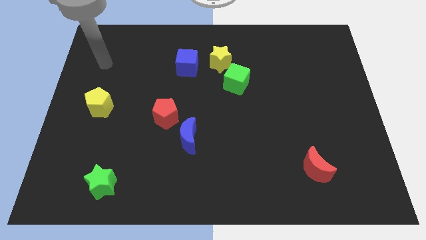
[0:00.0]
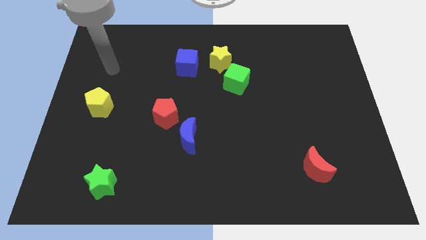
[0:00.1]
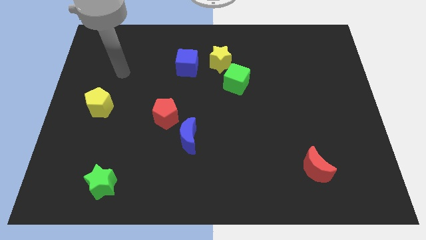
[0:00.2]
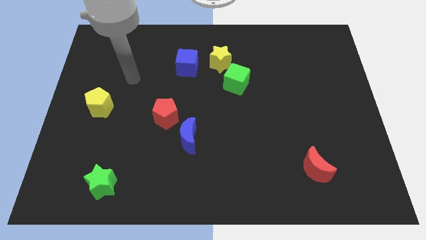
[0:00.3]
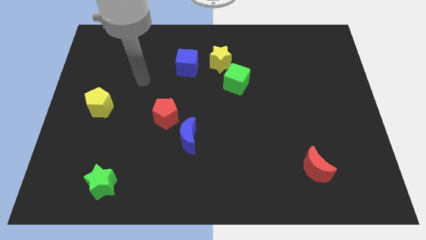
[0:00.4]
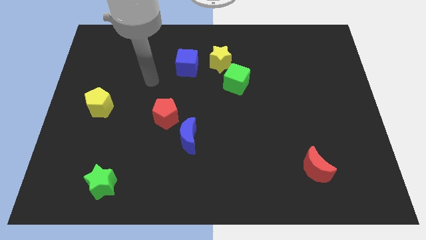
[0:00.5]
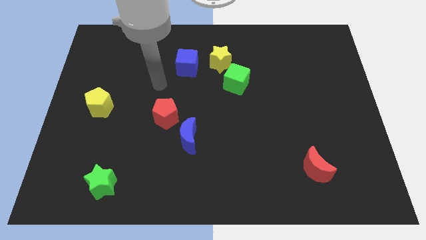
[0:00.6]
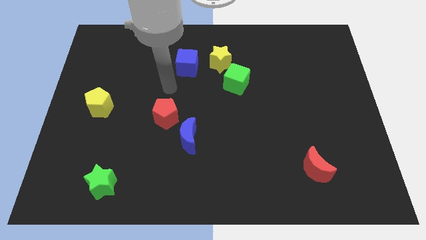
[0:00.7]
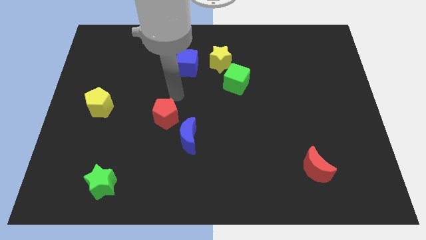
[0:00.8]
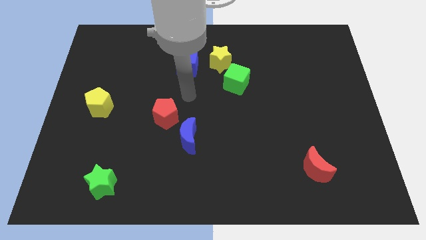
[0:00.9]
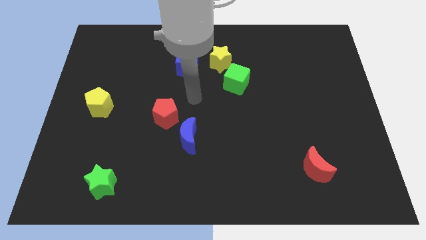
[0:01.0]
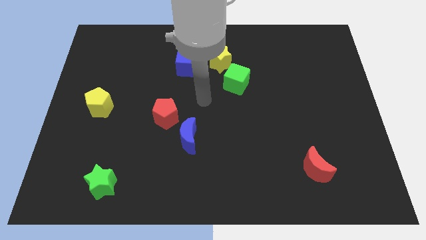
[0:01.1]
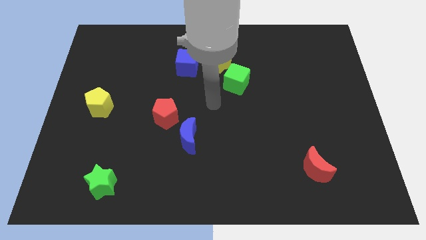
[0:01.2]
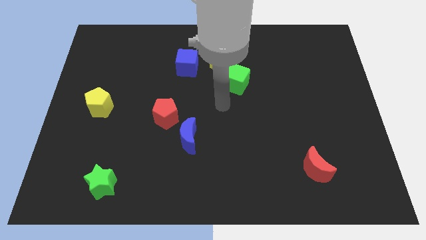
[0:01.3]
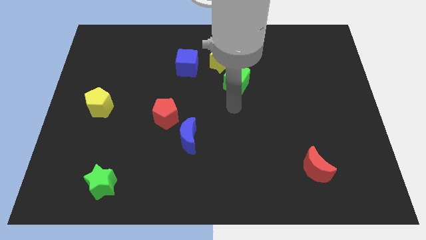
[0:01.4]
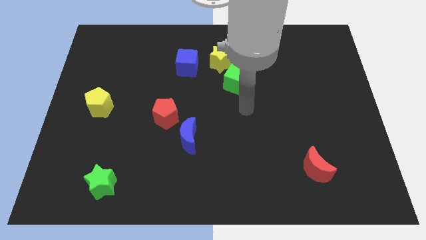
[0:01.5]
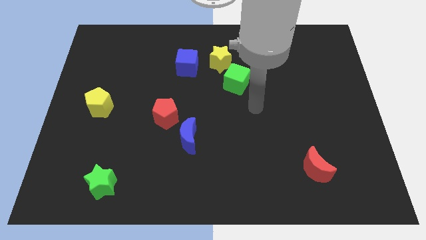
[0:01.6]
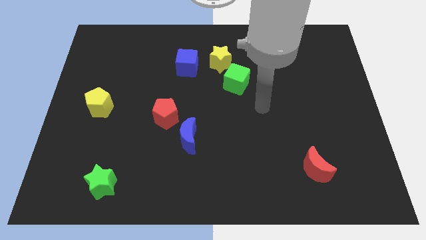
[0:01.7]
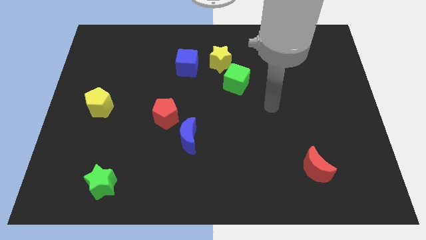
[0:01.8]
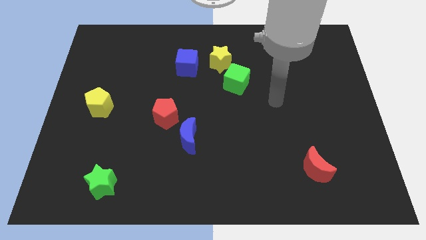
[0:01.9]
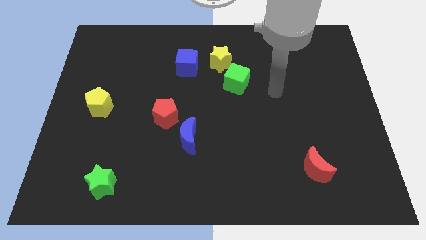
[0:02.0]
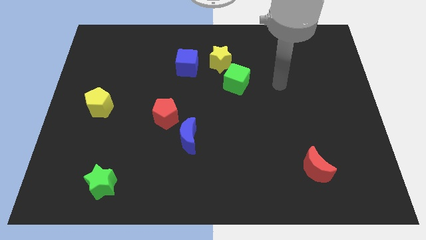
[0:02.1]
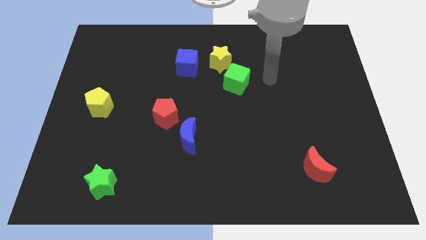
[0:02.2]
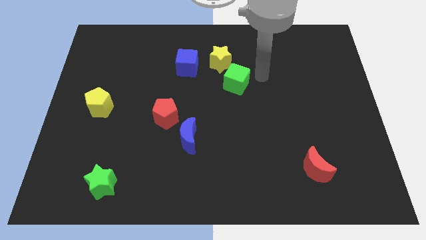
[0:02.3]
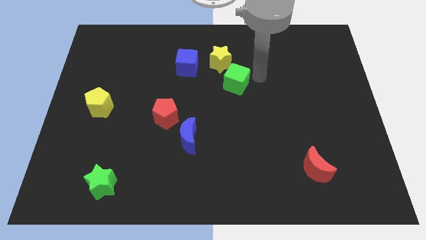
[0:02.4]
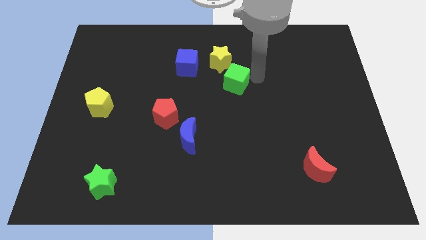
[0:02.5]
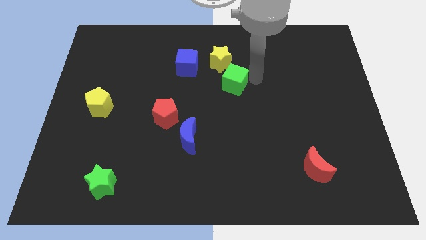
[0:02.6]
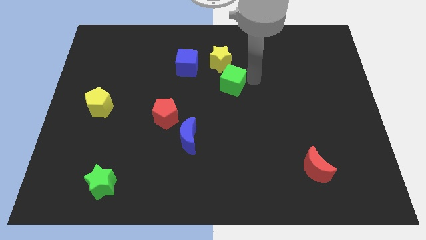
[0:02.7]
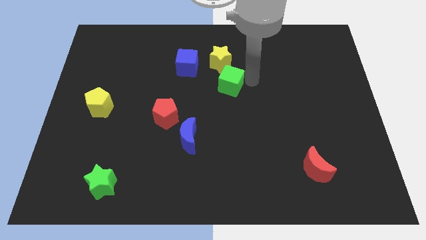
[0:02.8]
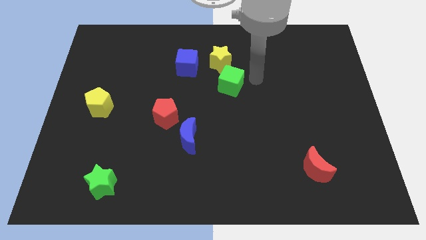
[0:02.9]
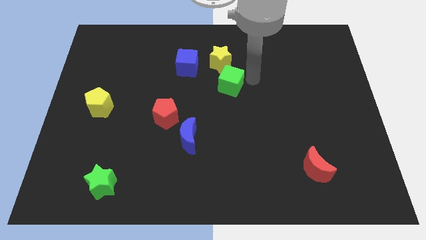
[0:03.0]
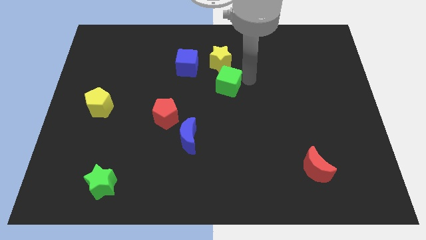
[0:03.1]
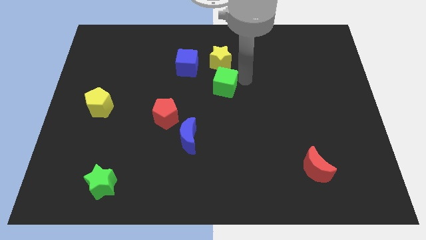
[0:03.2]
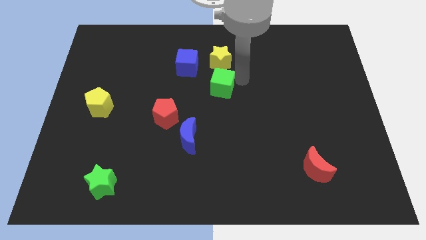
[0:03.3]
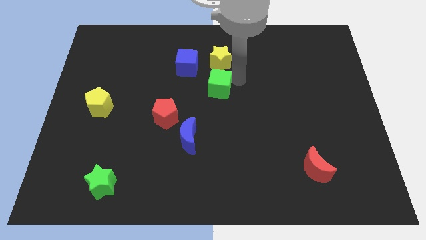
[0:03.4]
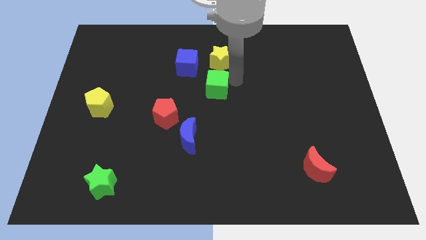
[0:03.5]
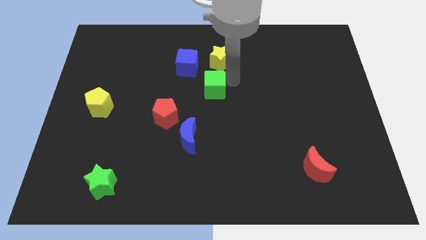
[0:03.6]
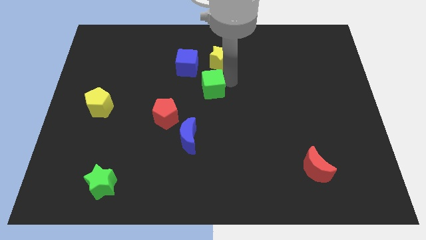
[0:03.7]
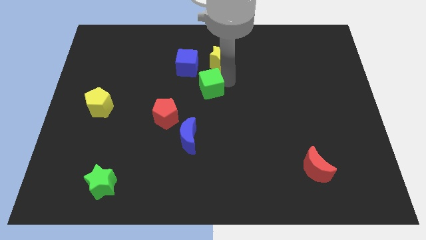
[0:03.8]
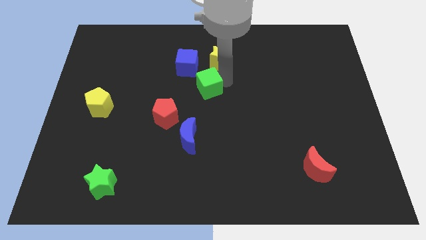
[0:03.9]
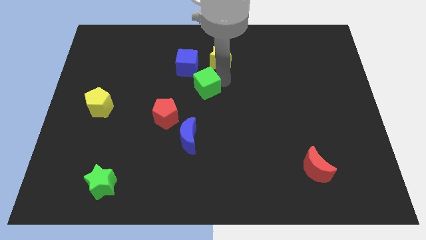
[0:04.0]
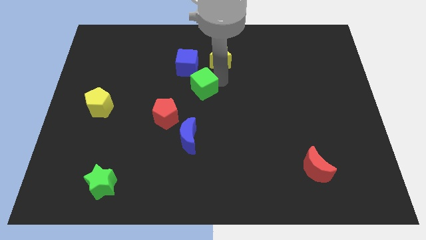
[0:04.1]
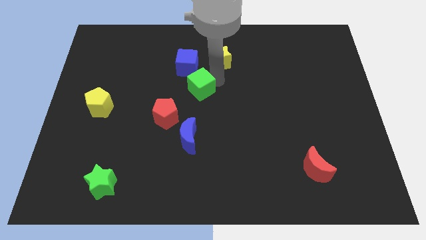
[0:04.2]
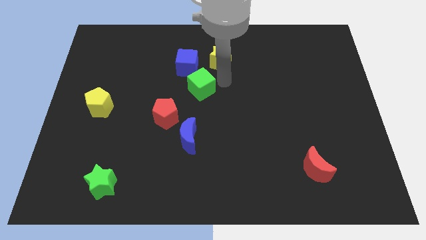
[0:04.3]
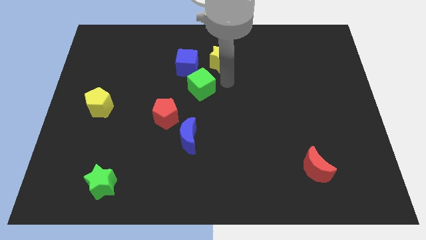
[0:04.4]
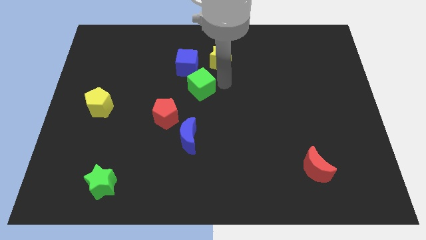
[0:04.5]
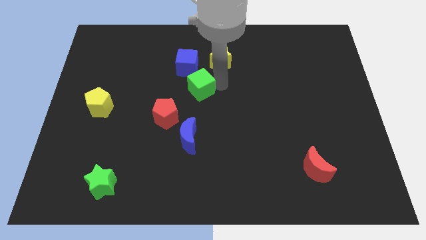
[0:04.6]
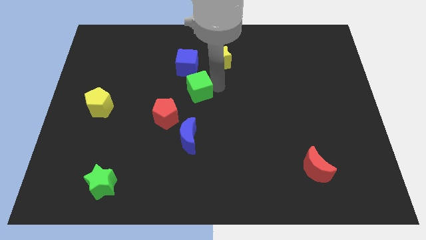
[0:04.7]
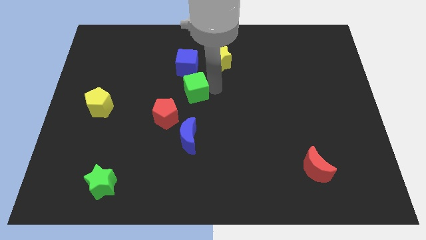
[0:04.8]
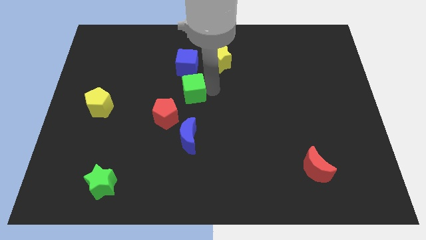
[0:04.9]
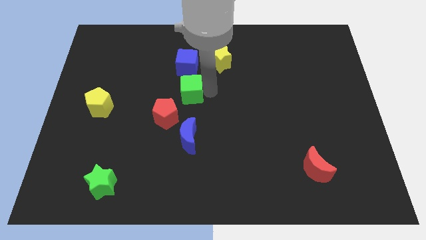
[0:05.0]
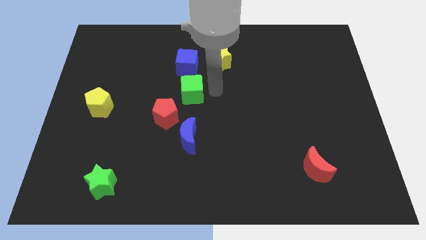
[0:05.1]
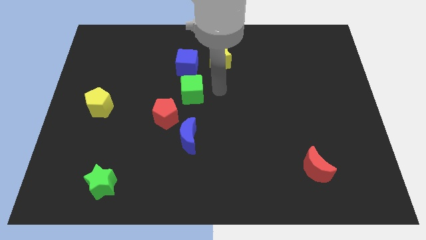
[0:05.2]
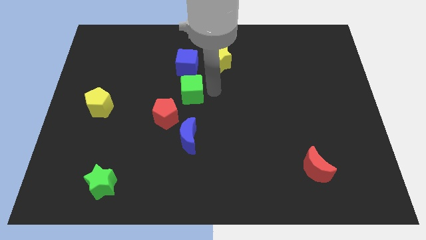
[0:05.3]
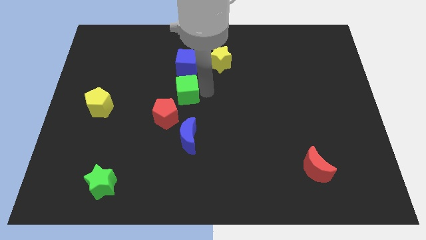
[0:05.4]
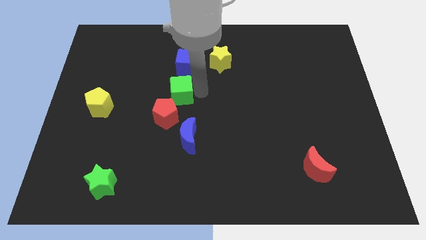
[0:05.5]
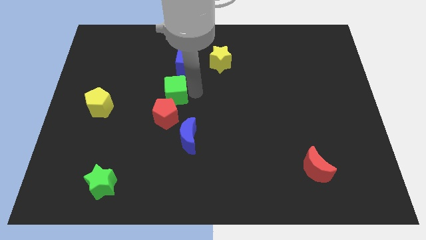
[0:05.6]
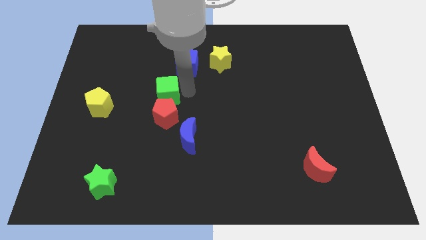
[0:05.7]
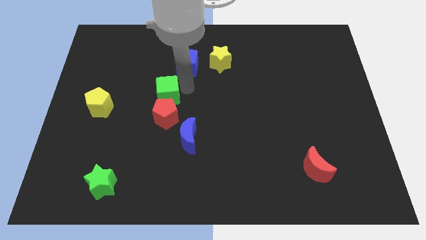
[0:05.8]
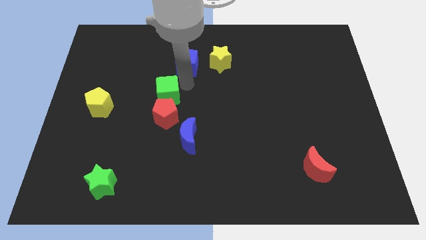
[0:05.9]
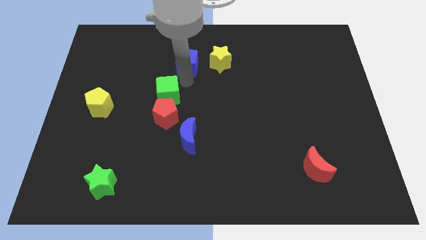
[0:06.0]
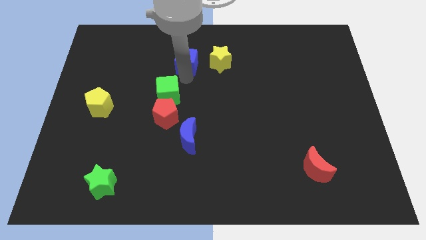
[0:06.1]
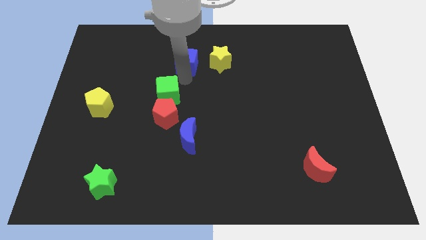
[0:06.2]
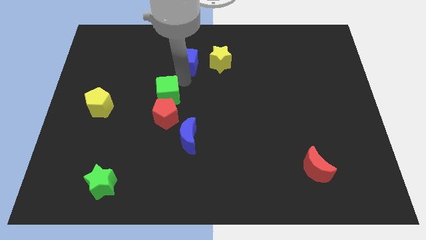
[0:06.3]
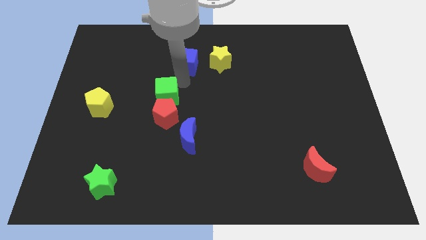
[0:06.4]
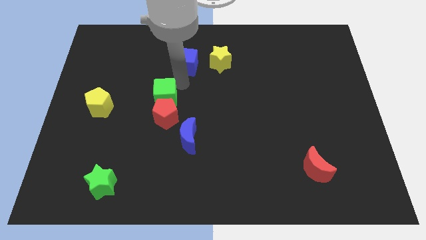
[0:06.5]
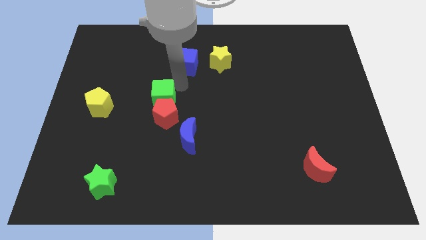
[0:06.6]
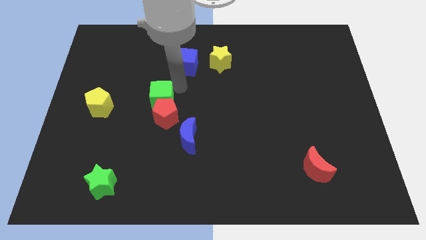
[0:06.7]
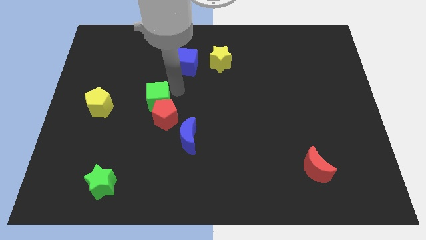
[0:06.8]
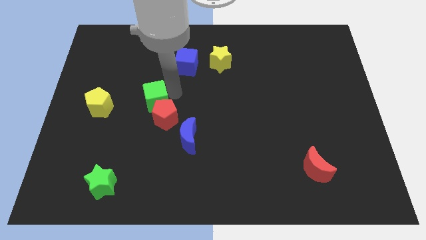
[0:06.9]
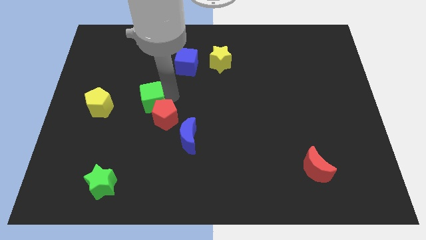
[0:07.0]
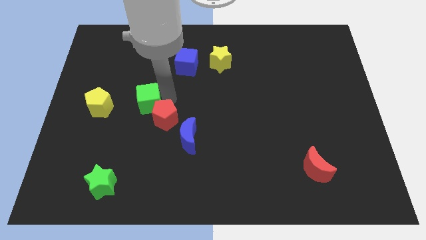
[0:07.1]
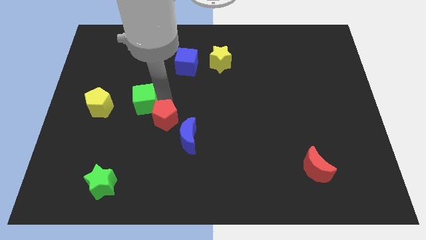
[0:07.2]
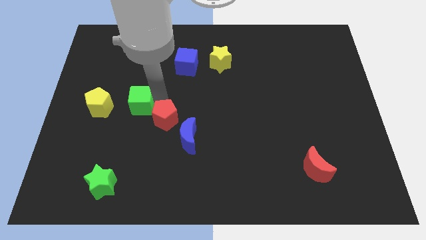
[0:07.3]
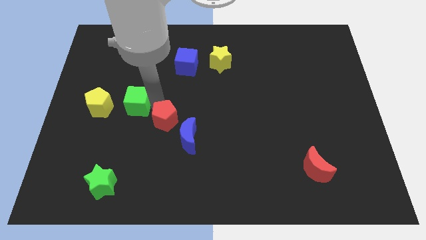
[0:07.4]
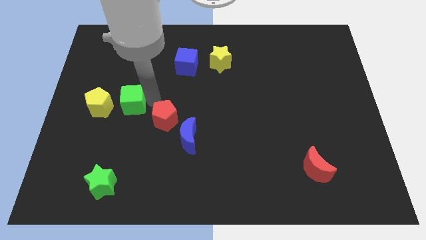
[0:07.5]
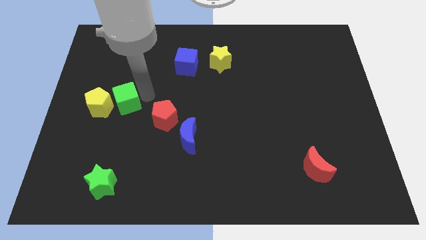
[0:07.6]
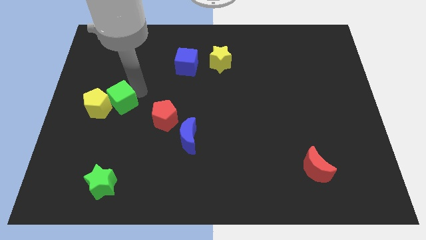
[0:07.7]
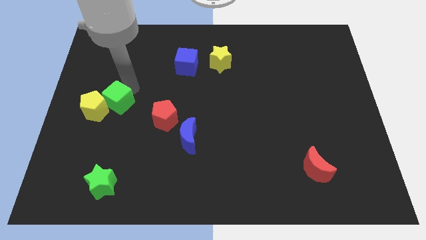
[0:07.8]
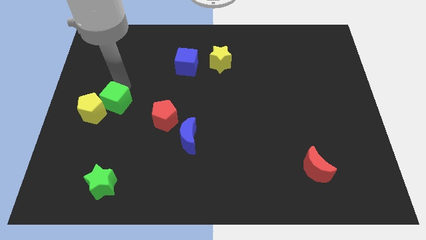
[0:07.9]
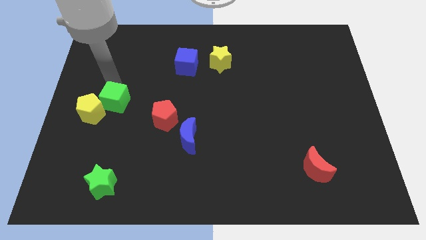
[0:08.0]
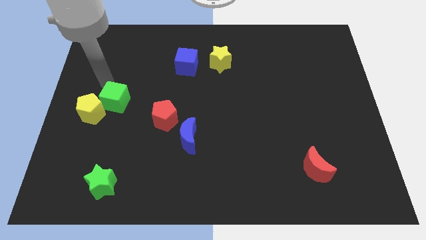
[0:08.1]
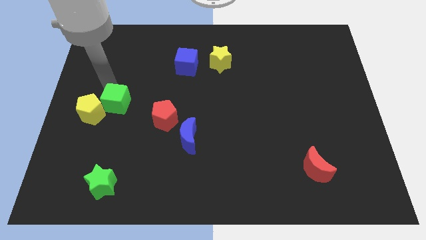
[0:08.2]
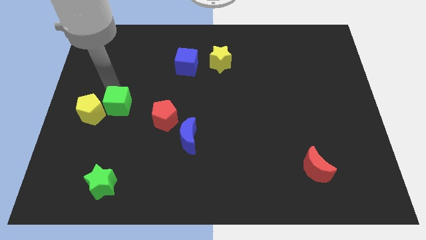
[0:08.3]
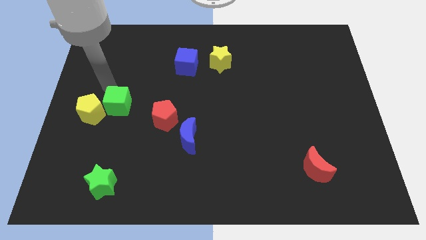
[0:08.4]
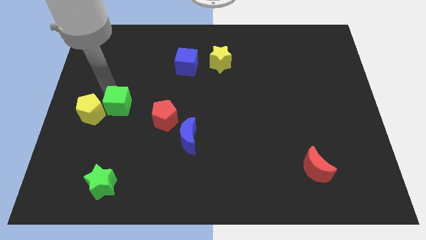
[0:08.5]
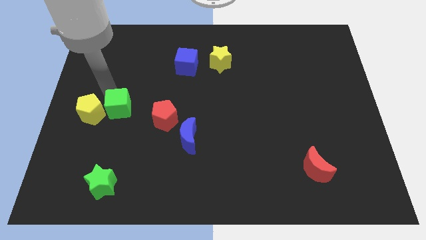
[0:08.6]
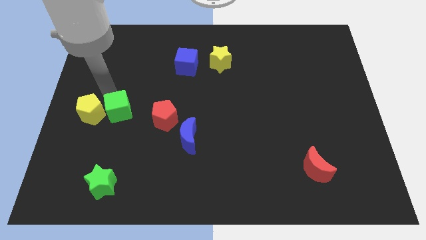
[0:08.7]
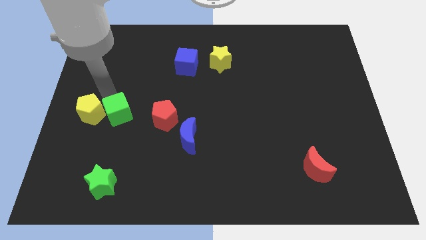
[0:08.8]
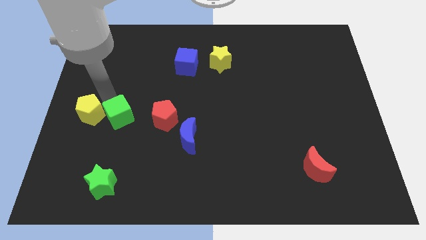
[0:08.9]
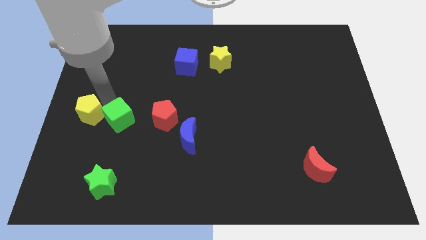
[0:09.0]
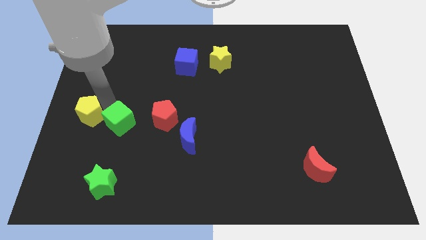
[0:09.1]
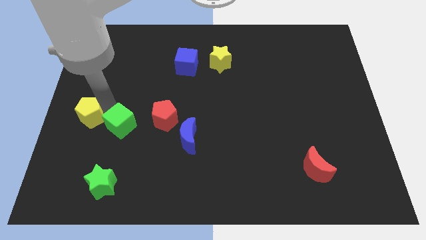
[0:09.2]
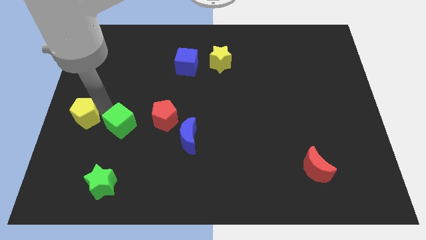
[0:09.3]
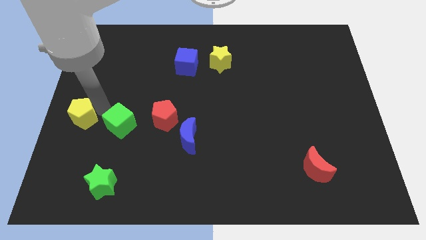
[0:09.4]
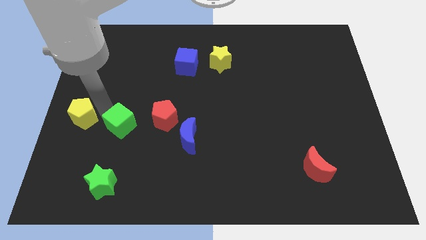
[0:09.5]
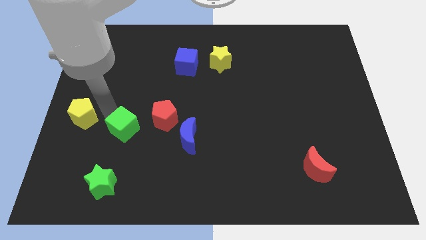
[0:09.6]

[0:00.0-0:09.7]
move the green cube just left of the blue moon
